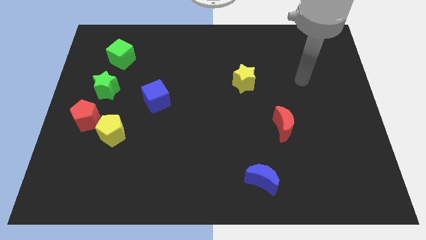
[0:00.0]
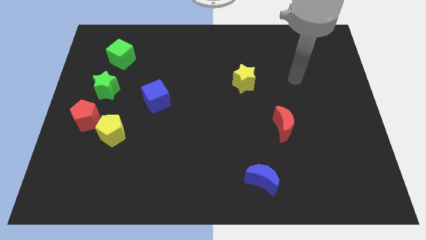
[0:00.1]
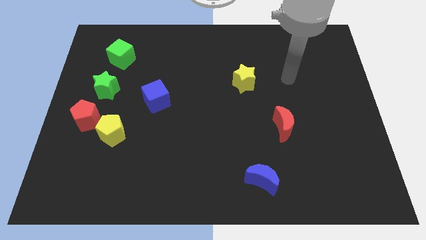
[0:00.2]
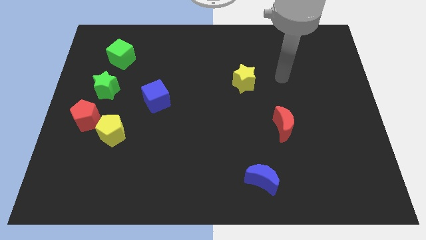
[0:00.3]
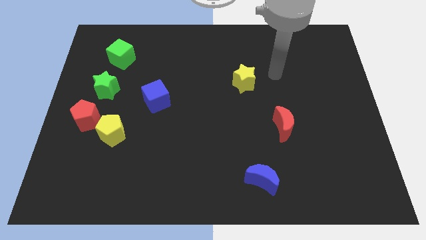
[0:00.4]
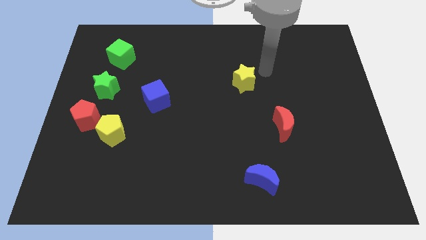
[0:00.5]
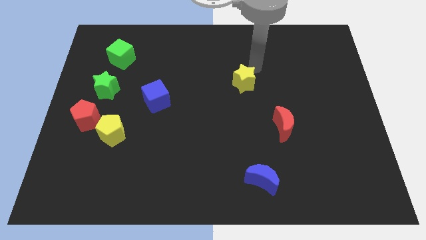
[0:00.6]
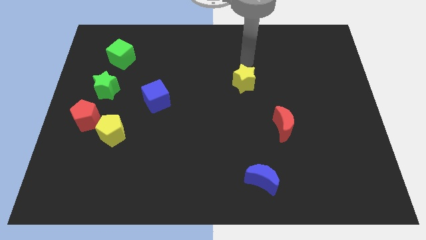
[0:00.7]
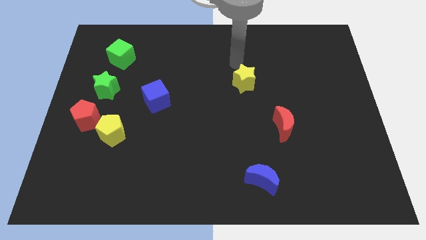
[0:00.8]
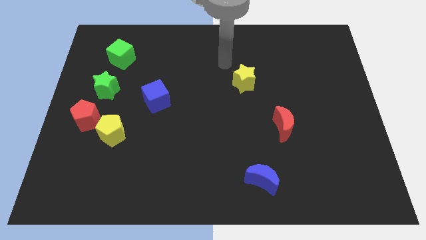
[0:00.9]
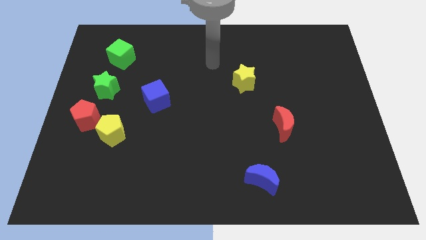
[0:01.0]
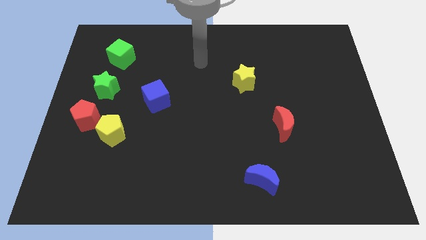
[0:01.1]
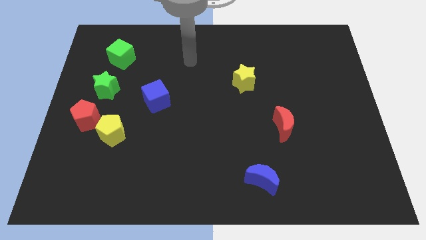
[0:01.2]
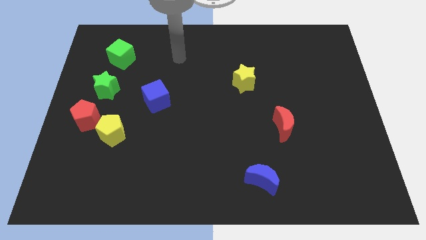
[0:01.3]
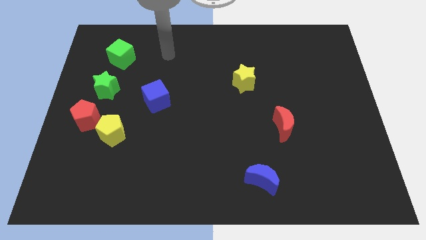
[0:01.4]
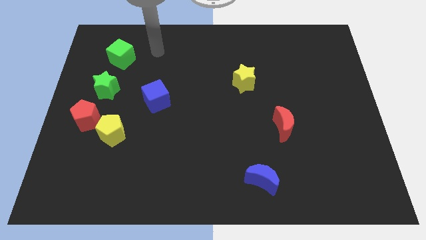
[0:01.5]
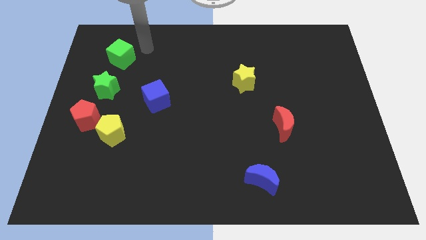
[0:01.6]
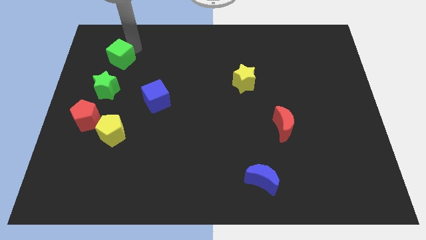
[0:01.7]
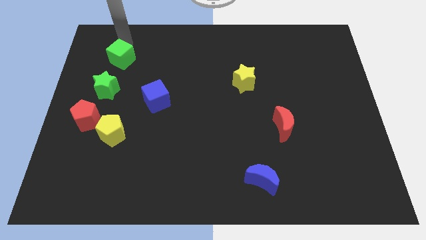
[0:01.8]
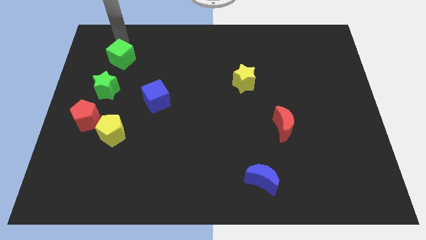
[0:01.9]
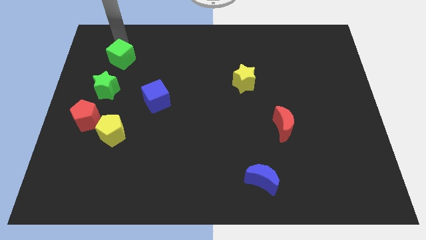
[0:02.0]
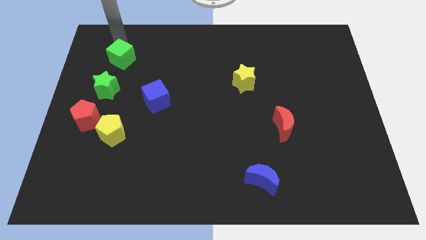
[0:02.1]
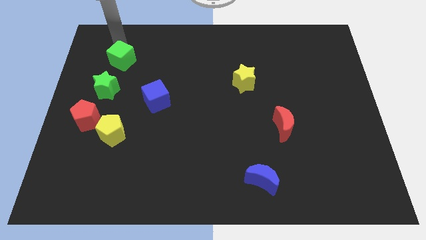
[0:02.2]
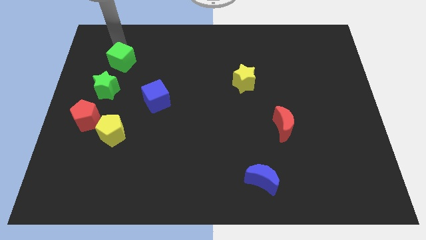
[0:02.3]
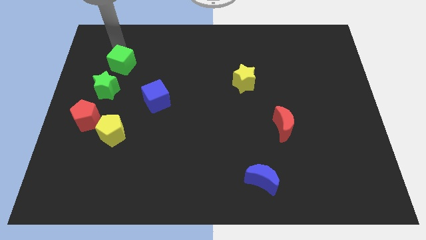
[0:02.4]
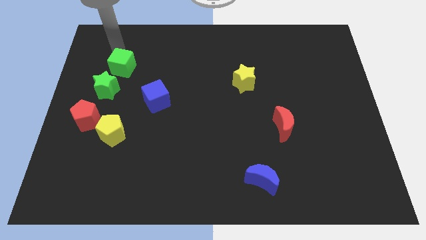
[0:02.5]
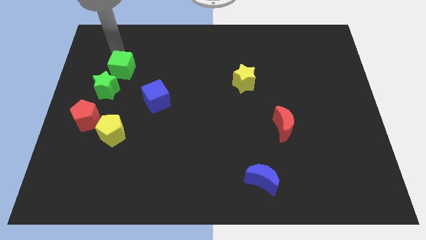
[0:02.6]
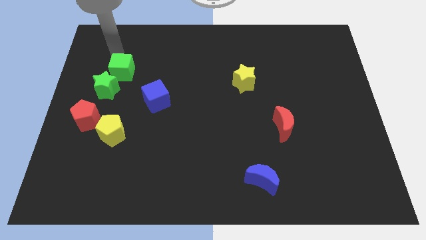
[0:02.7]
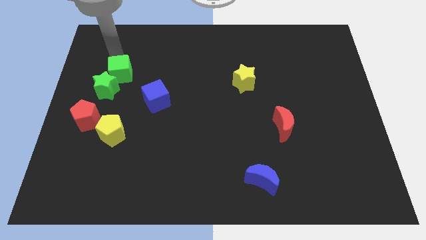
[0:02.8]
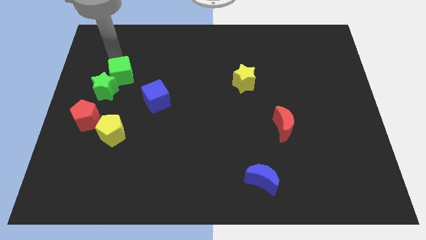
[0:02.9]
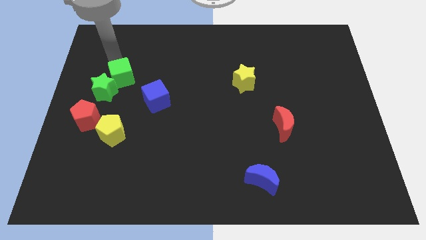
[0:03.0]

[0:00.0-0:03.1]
push the green cube down a bit

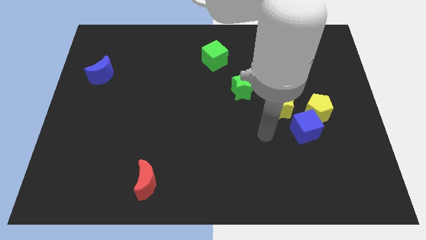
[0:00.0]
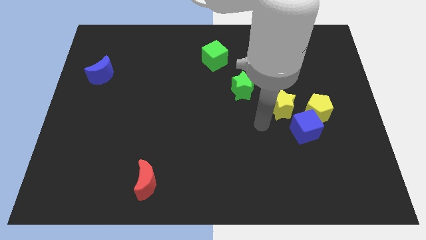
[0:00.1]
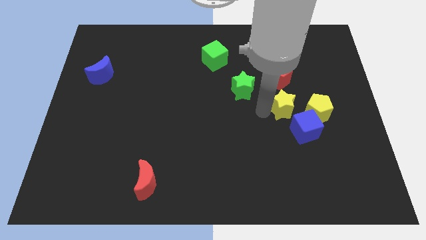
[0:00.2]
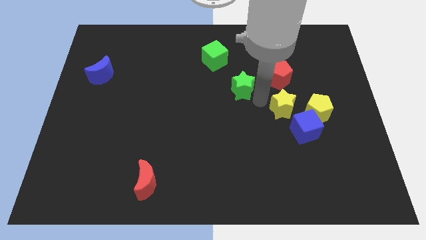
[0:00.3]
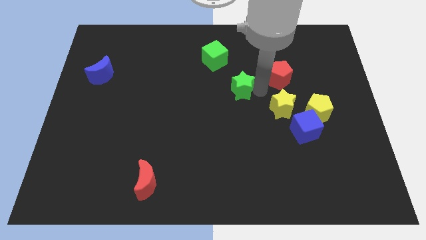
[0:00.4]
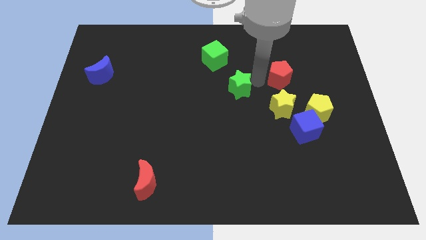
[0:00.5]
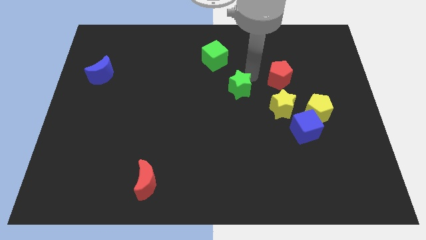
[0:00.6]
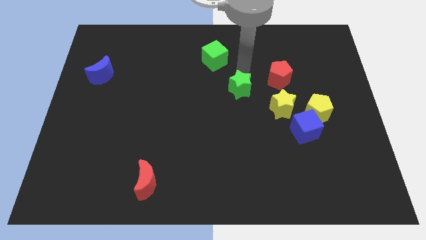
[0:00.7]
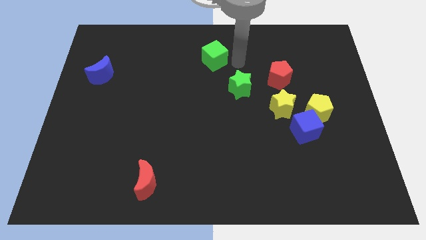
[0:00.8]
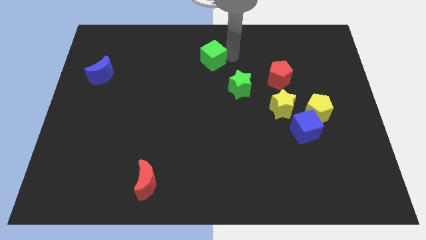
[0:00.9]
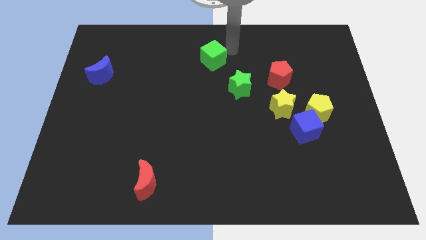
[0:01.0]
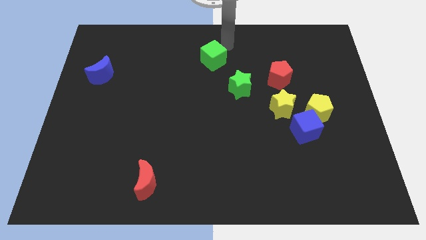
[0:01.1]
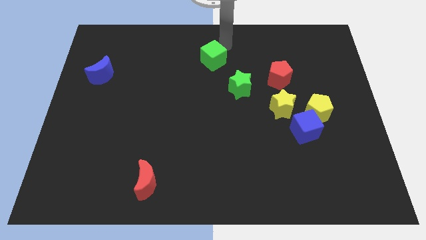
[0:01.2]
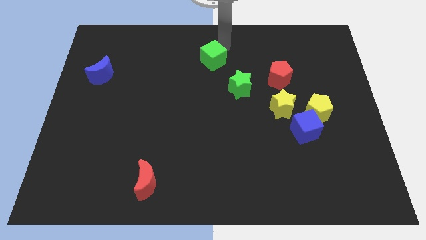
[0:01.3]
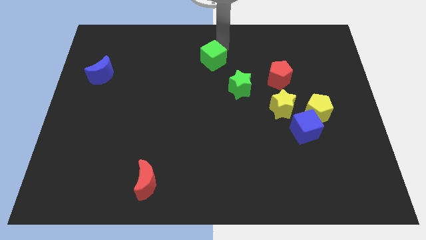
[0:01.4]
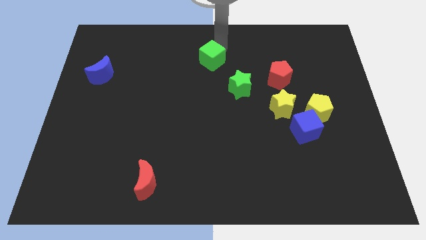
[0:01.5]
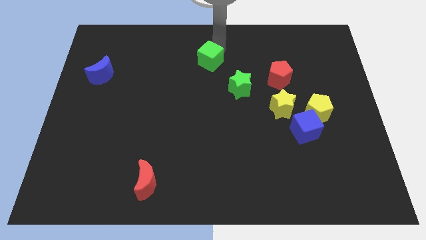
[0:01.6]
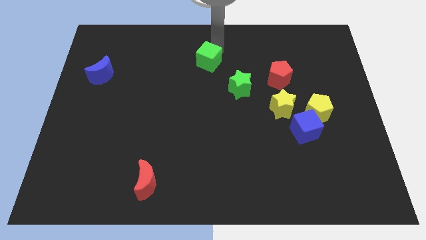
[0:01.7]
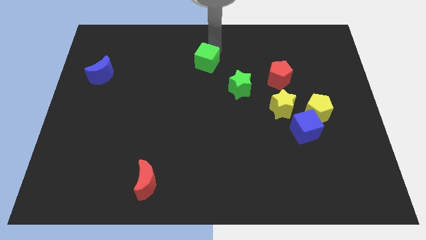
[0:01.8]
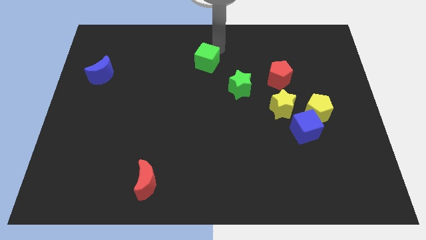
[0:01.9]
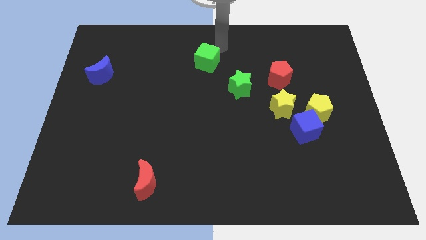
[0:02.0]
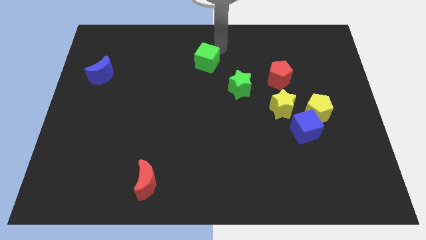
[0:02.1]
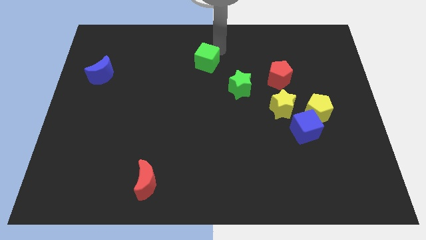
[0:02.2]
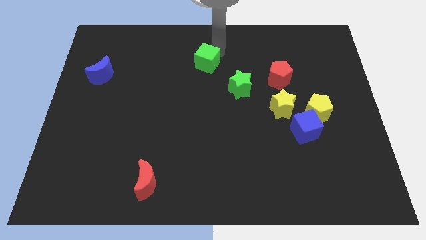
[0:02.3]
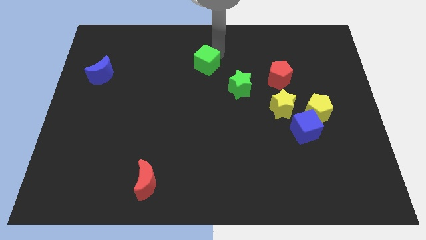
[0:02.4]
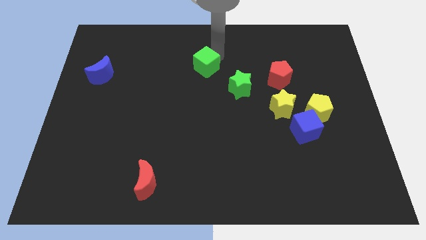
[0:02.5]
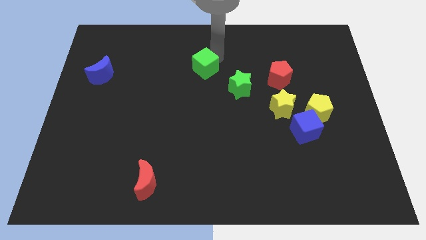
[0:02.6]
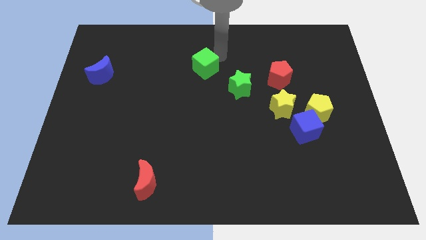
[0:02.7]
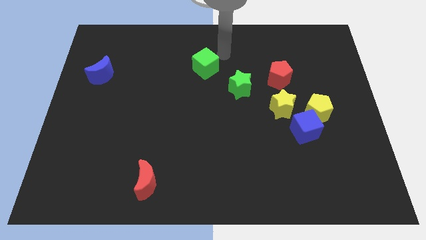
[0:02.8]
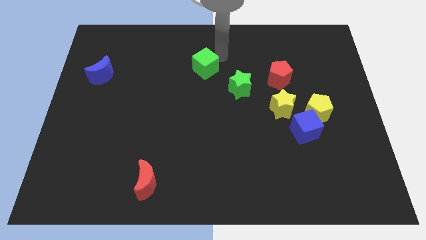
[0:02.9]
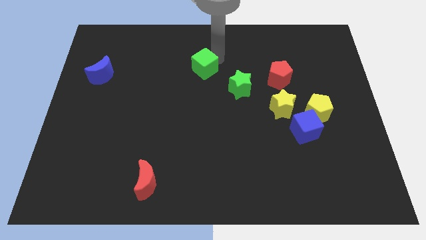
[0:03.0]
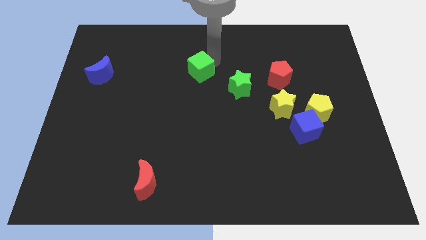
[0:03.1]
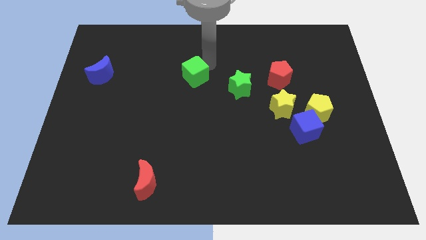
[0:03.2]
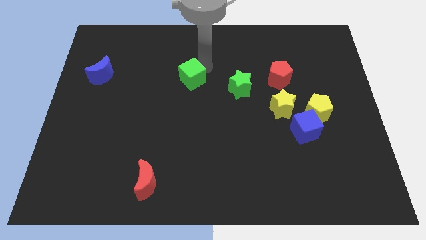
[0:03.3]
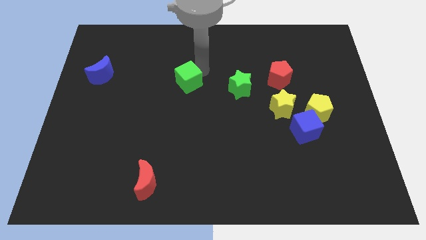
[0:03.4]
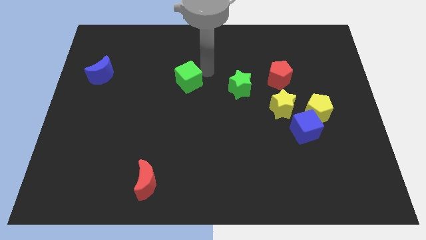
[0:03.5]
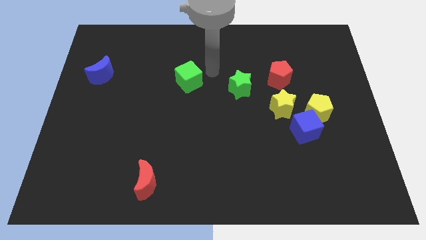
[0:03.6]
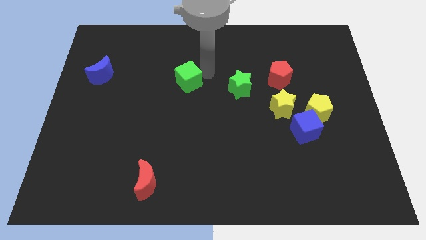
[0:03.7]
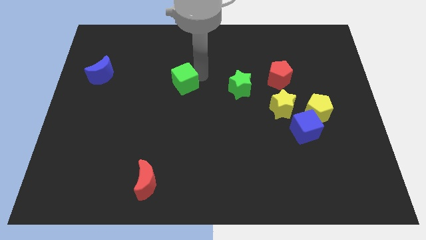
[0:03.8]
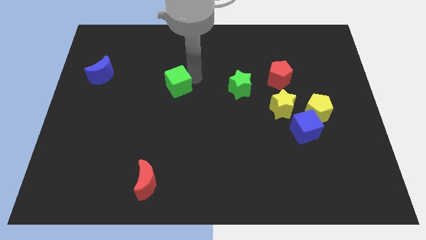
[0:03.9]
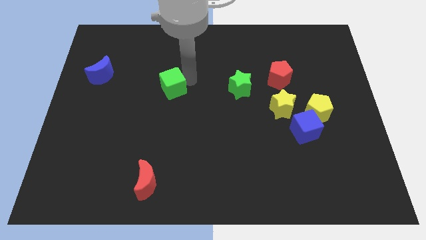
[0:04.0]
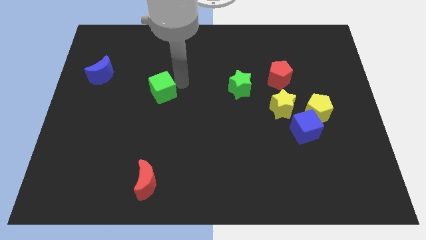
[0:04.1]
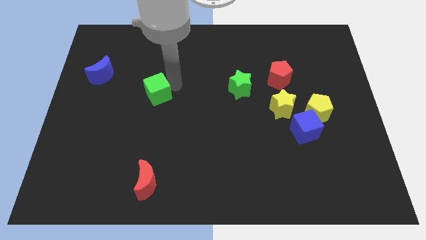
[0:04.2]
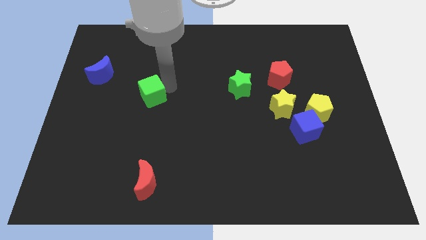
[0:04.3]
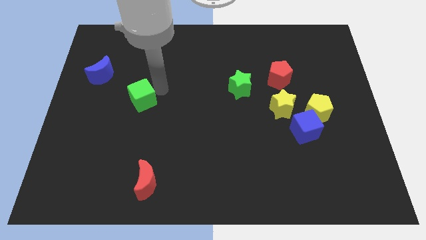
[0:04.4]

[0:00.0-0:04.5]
push the green cube downwards and then to the left

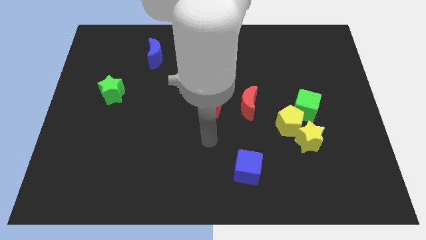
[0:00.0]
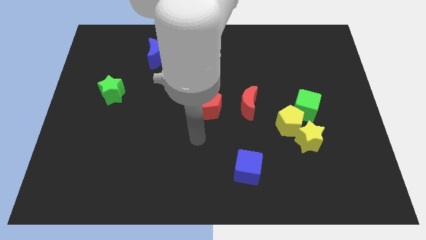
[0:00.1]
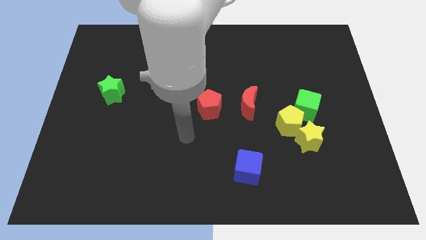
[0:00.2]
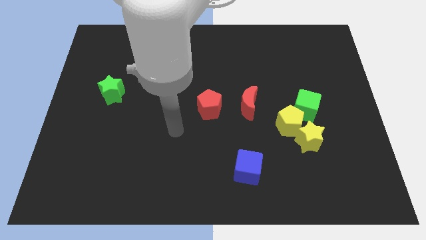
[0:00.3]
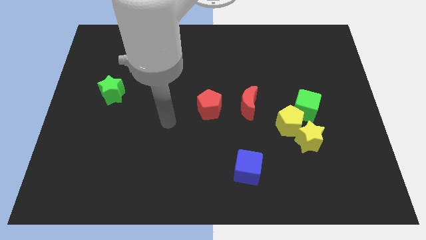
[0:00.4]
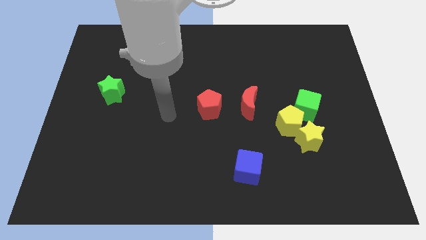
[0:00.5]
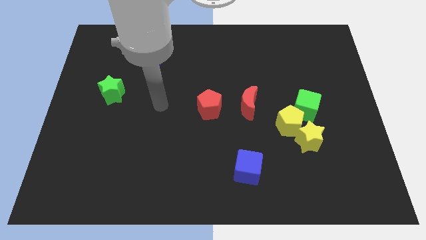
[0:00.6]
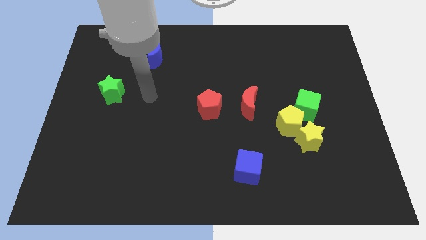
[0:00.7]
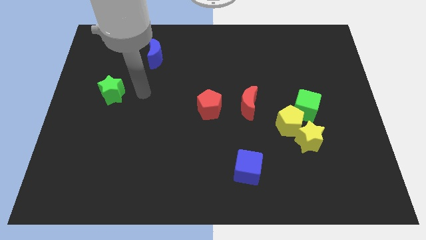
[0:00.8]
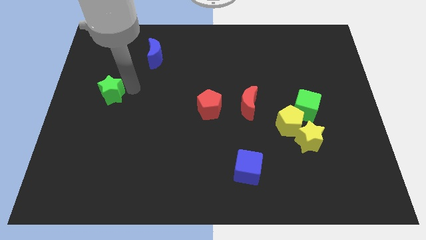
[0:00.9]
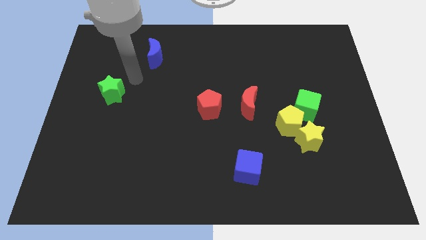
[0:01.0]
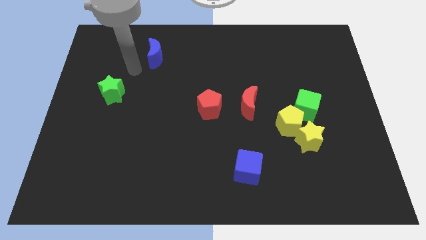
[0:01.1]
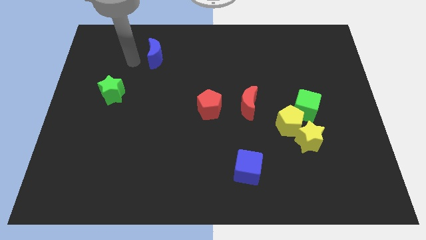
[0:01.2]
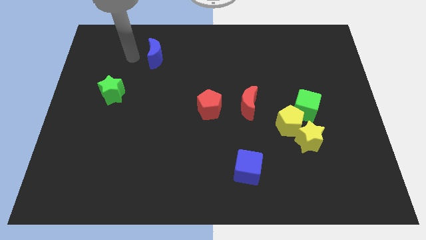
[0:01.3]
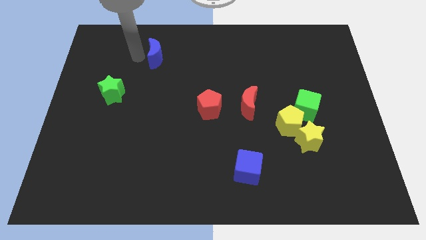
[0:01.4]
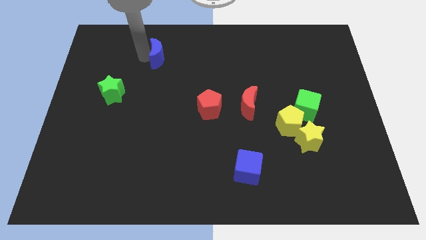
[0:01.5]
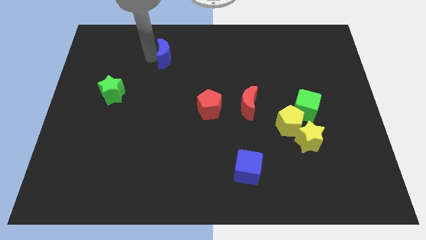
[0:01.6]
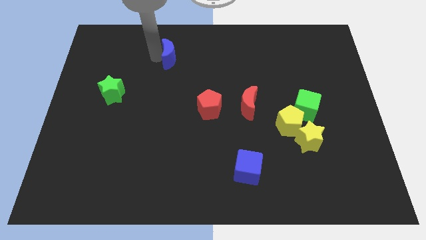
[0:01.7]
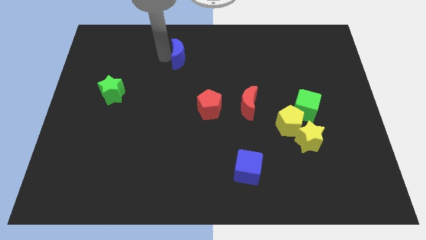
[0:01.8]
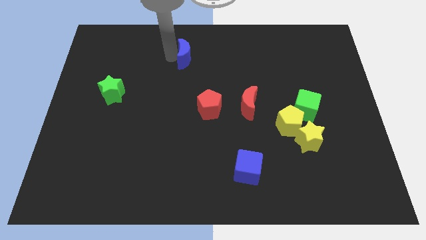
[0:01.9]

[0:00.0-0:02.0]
slightly slide the blue moon to the right
